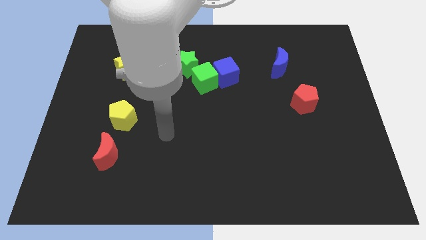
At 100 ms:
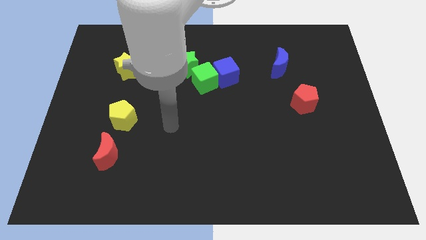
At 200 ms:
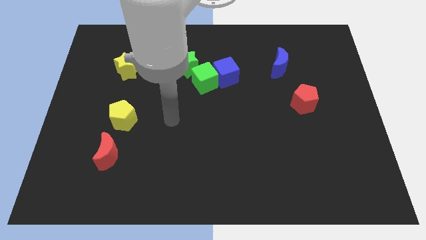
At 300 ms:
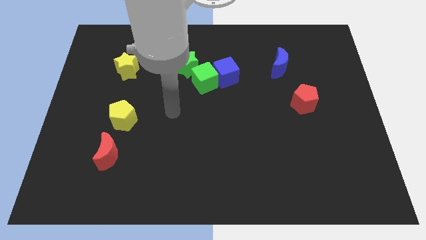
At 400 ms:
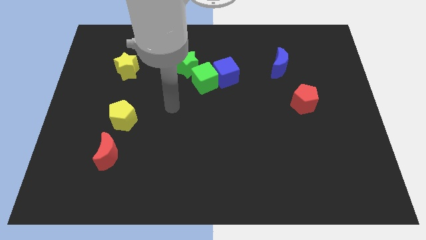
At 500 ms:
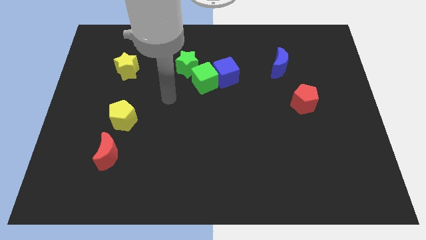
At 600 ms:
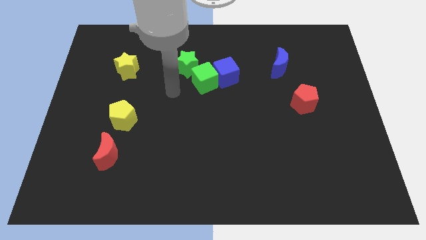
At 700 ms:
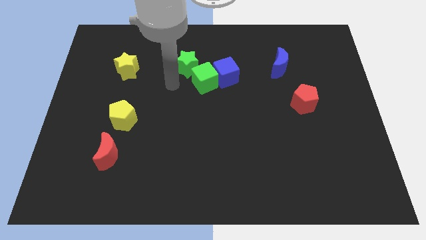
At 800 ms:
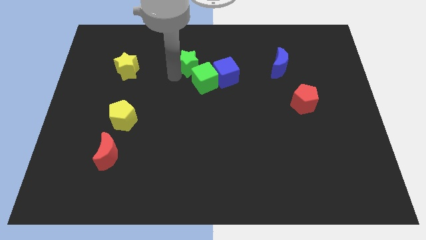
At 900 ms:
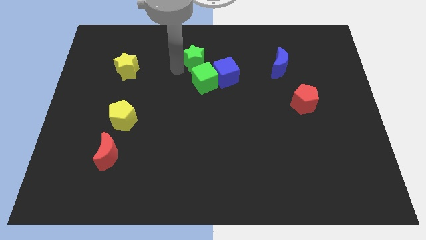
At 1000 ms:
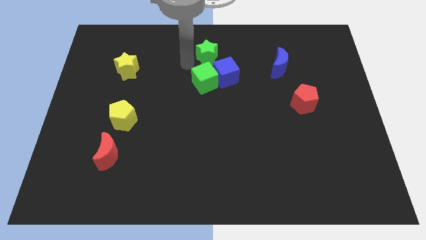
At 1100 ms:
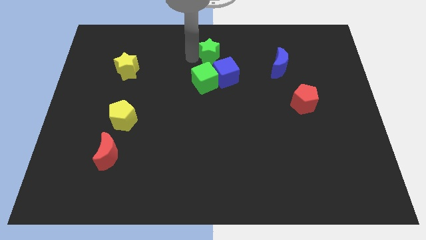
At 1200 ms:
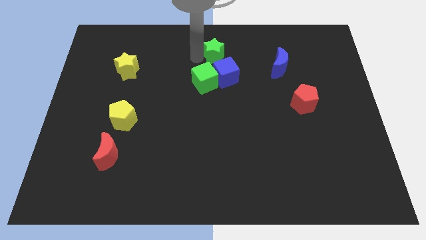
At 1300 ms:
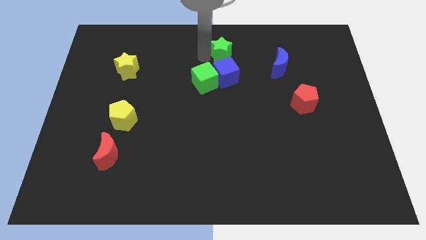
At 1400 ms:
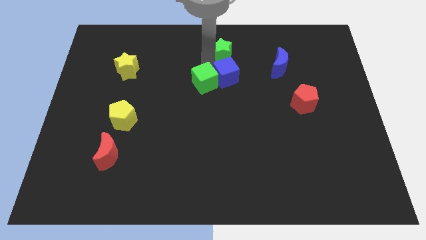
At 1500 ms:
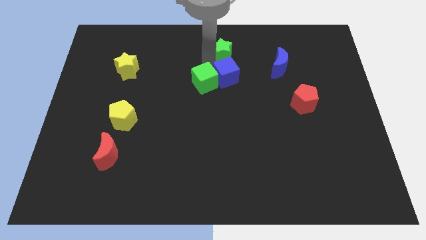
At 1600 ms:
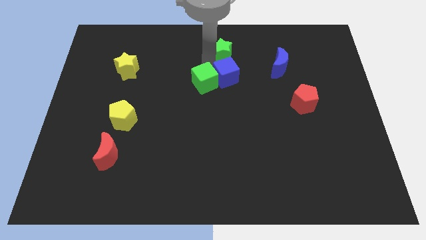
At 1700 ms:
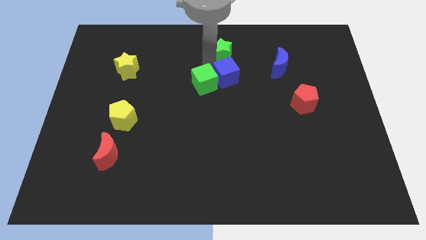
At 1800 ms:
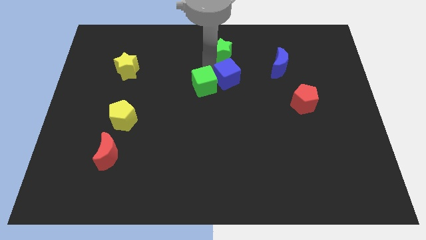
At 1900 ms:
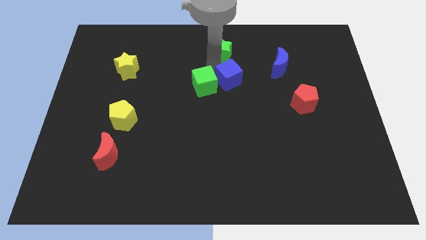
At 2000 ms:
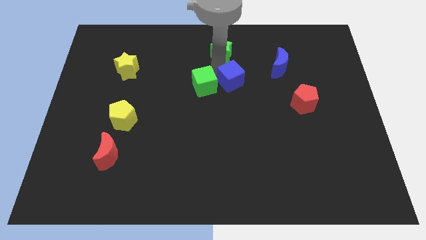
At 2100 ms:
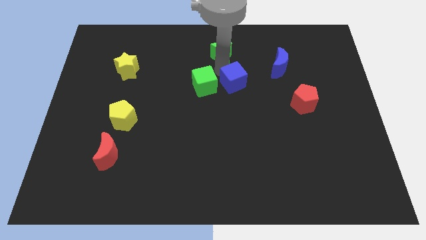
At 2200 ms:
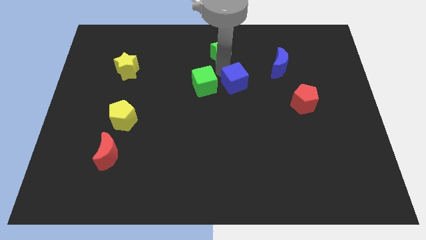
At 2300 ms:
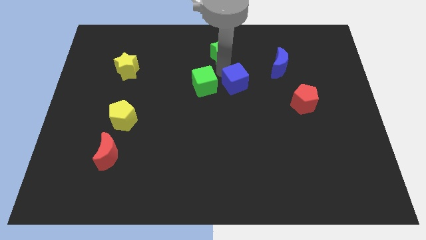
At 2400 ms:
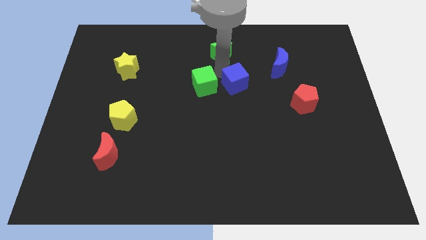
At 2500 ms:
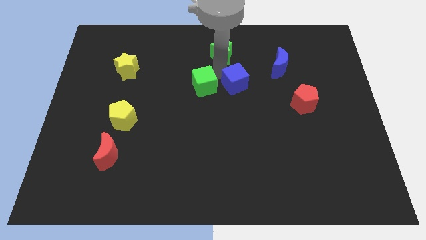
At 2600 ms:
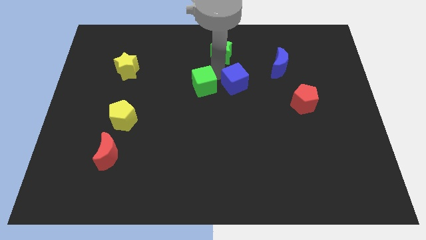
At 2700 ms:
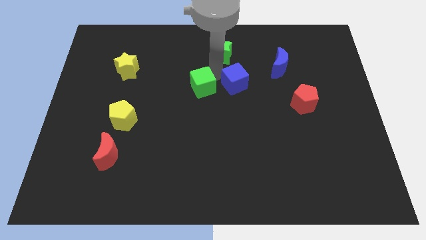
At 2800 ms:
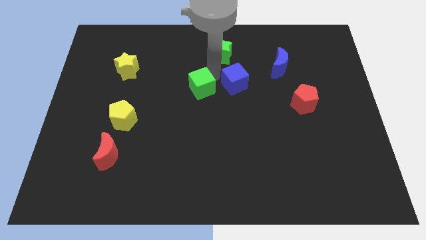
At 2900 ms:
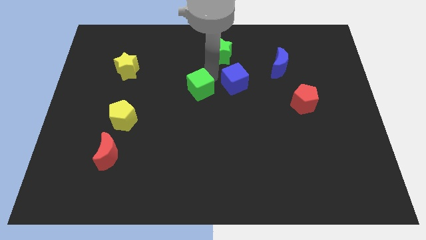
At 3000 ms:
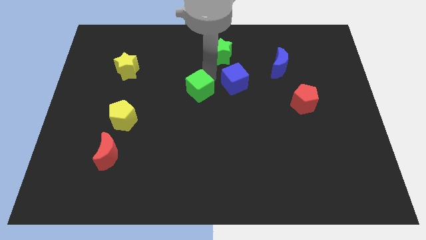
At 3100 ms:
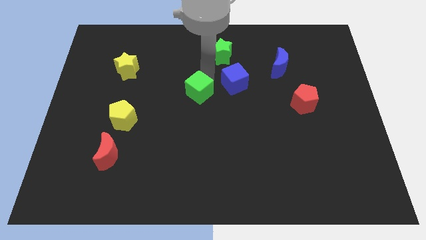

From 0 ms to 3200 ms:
move the green cube away from the blue cube and green star

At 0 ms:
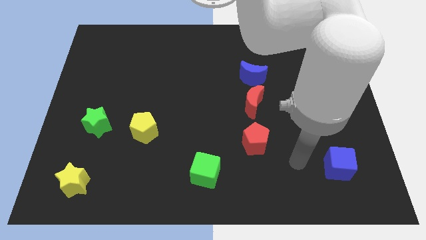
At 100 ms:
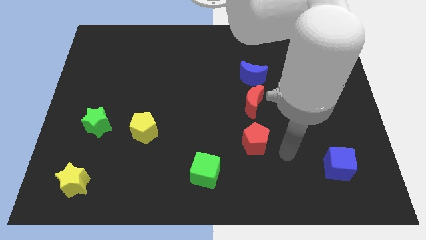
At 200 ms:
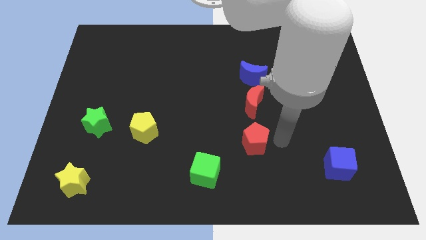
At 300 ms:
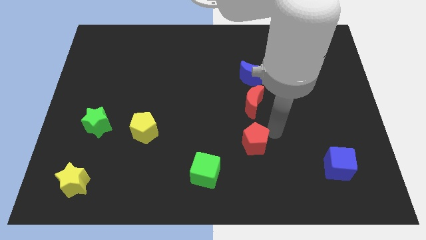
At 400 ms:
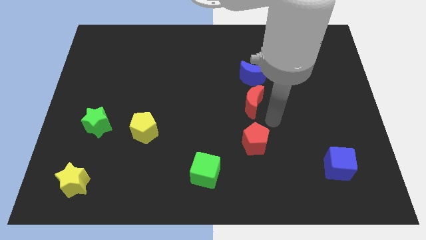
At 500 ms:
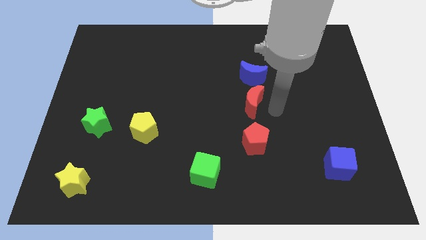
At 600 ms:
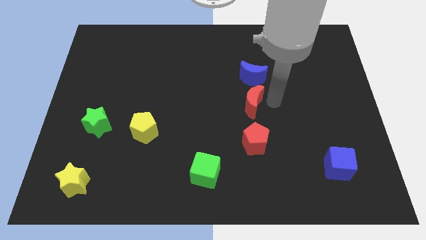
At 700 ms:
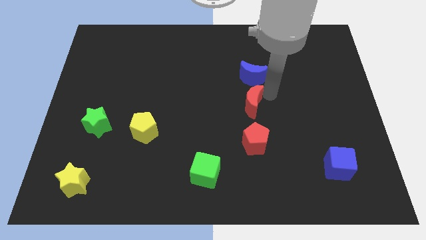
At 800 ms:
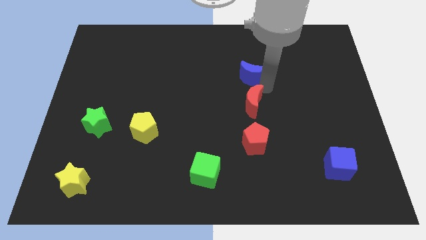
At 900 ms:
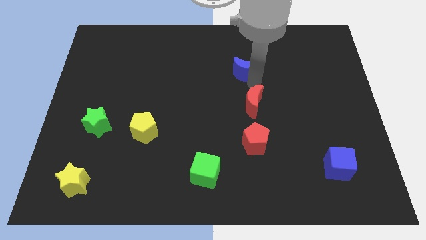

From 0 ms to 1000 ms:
pull the red moon apart from the blue moon

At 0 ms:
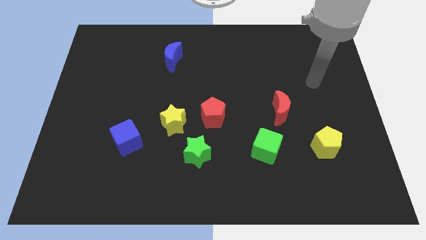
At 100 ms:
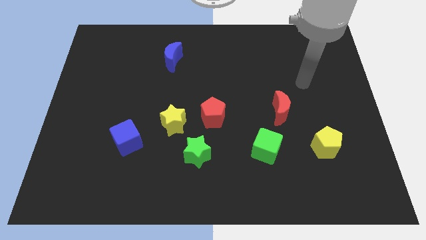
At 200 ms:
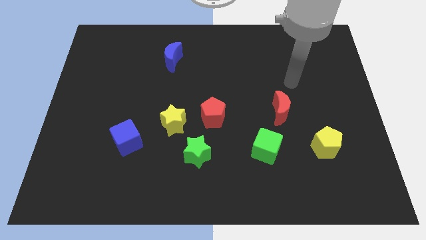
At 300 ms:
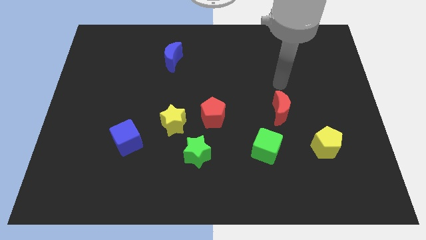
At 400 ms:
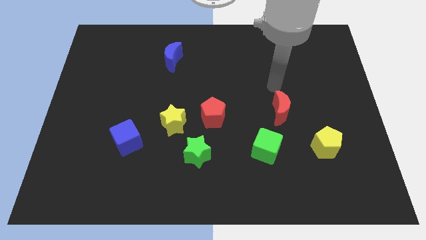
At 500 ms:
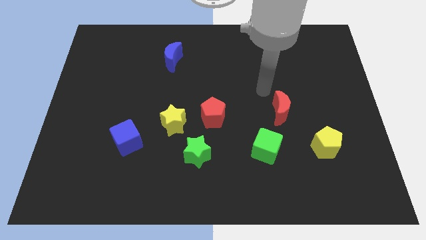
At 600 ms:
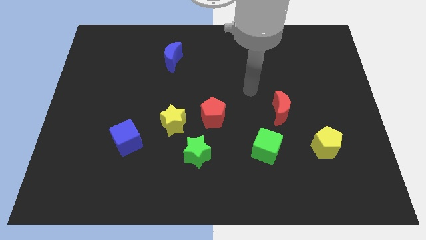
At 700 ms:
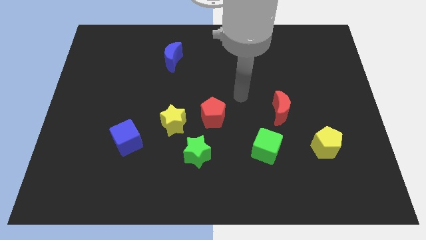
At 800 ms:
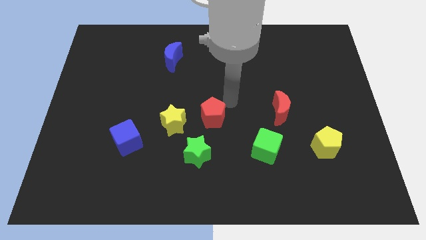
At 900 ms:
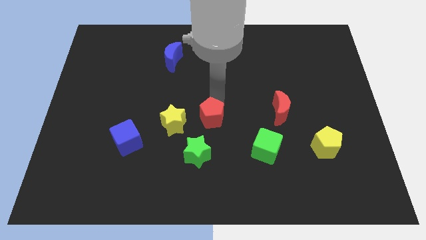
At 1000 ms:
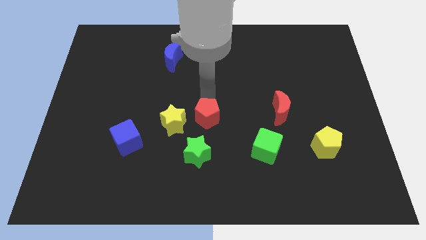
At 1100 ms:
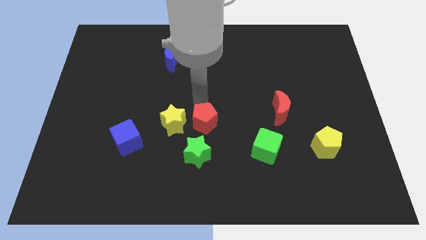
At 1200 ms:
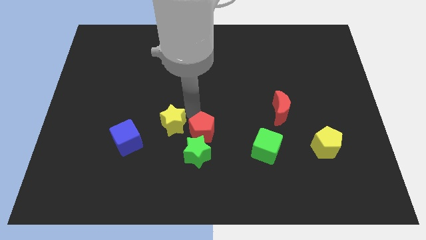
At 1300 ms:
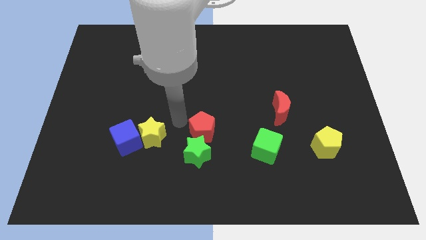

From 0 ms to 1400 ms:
pull the red pentagon apart from the yellow star

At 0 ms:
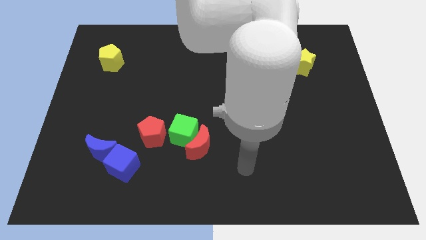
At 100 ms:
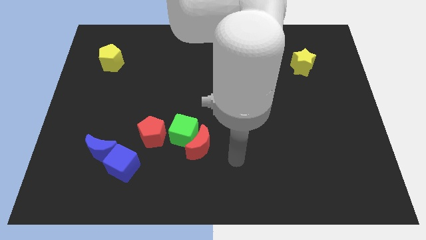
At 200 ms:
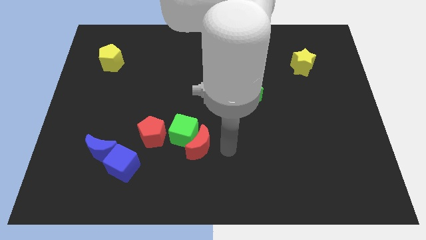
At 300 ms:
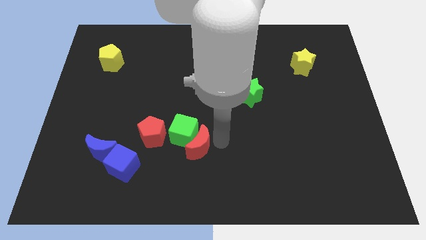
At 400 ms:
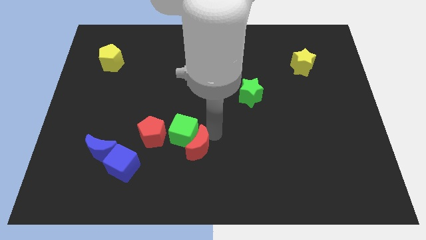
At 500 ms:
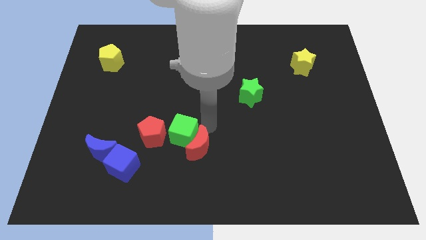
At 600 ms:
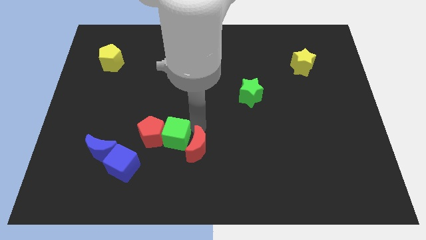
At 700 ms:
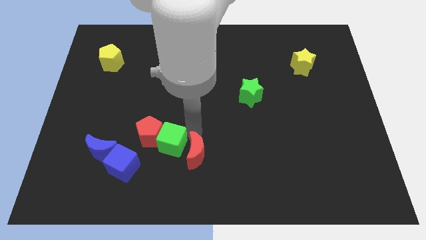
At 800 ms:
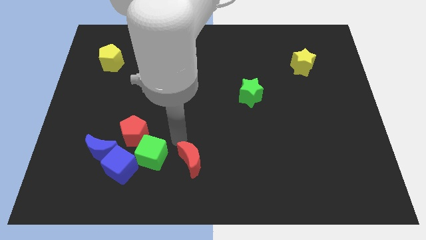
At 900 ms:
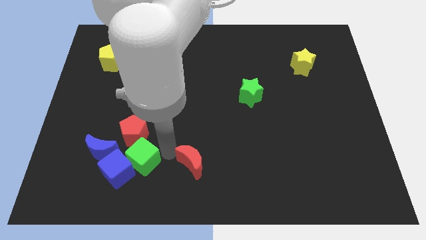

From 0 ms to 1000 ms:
pull the red moon apart from the green cube

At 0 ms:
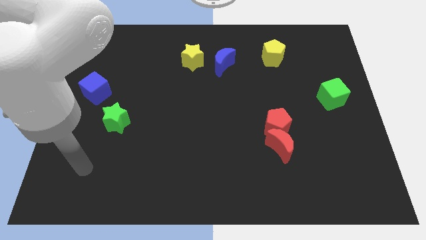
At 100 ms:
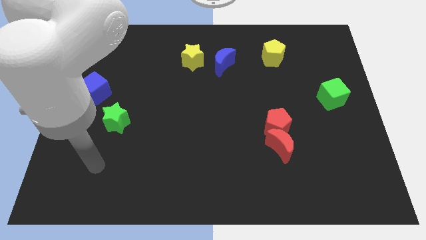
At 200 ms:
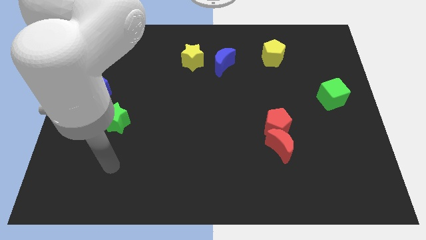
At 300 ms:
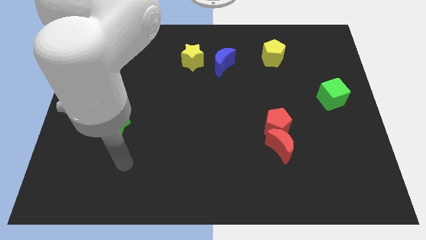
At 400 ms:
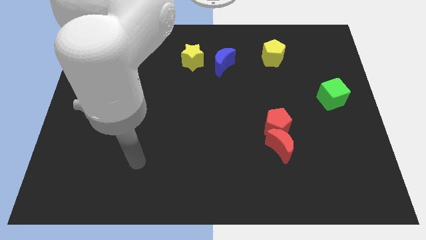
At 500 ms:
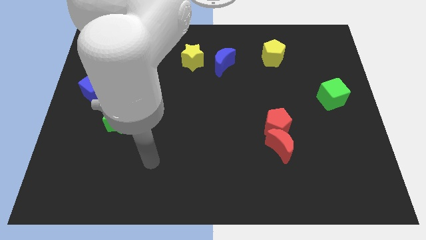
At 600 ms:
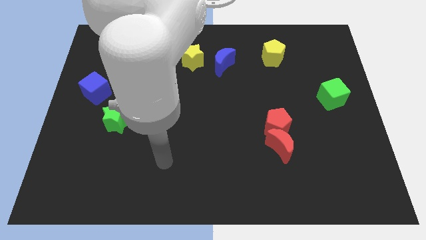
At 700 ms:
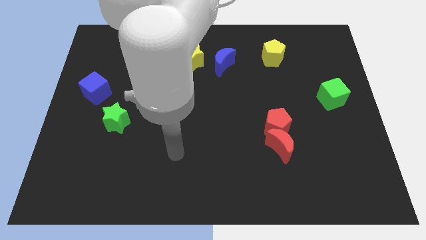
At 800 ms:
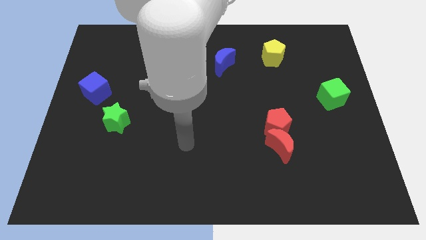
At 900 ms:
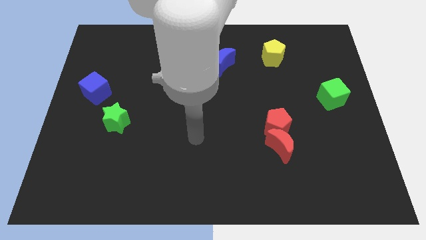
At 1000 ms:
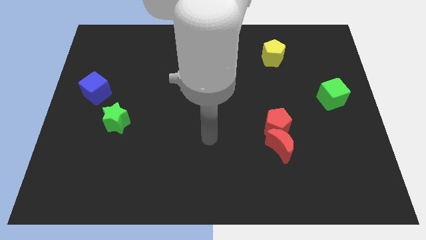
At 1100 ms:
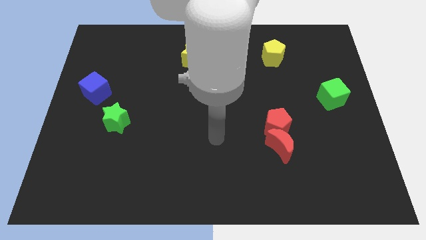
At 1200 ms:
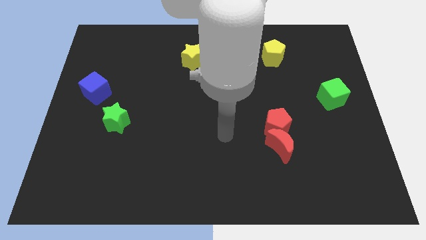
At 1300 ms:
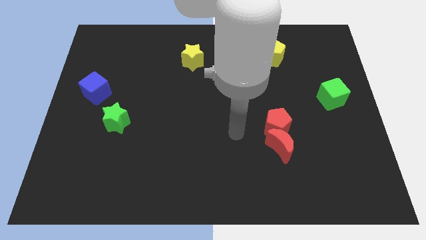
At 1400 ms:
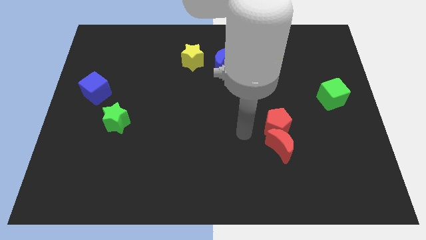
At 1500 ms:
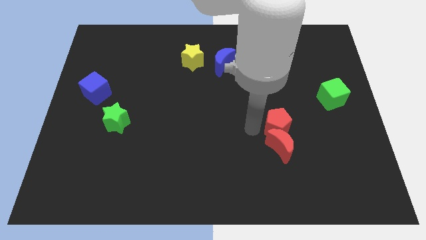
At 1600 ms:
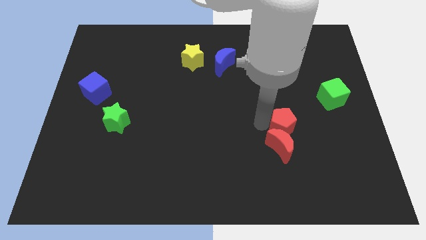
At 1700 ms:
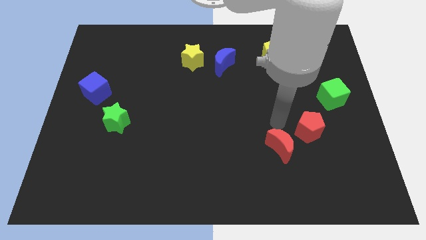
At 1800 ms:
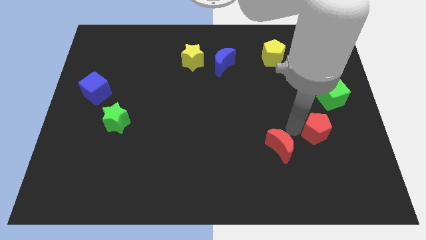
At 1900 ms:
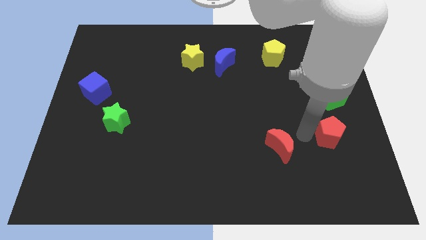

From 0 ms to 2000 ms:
move the red moon away from the red pentagon

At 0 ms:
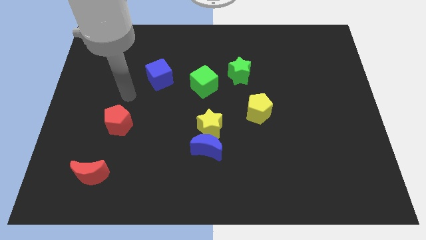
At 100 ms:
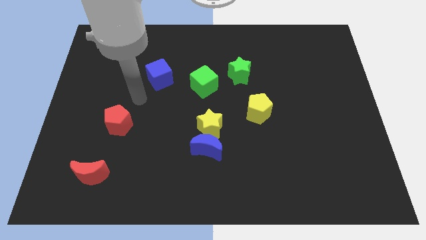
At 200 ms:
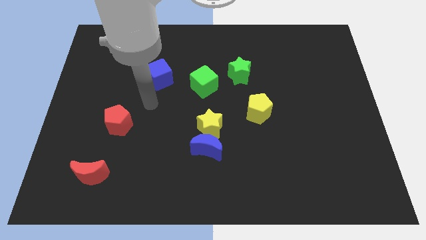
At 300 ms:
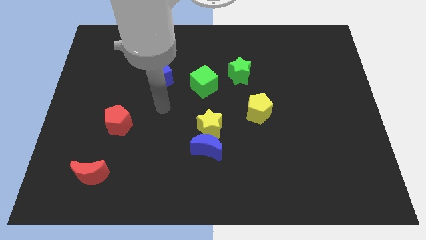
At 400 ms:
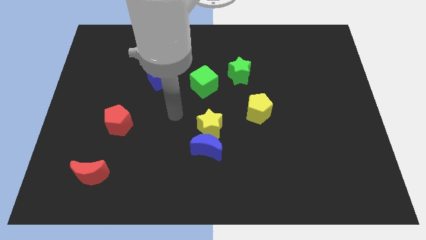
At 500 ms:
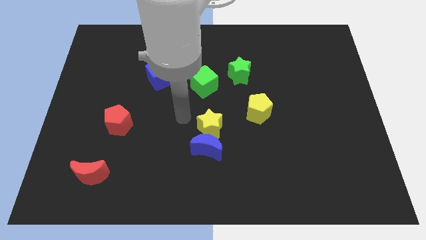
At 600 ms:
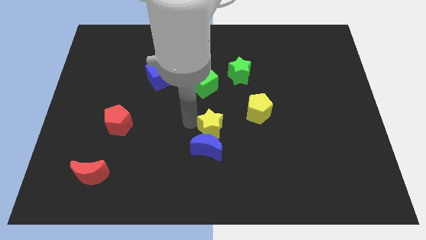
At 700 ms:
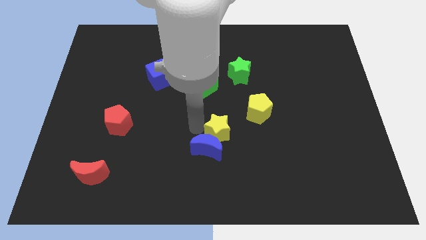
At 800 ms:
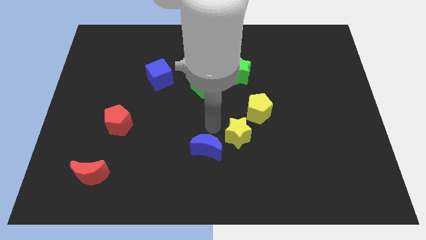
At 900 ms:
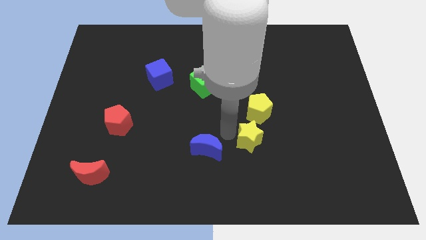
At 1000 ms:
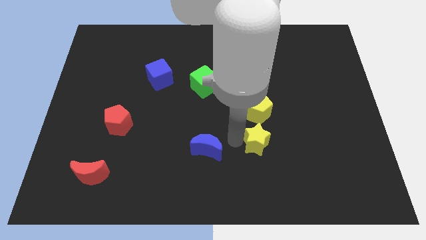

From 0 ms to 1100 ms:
separate the blue moon from the yellow star
